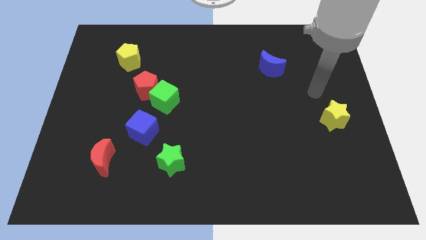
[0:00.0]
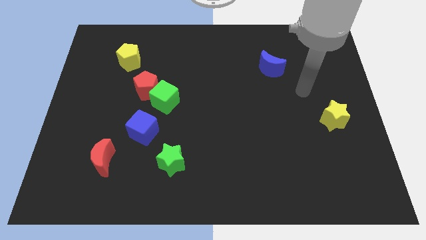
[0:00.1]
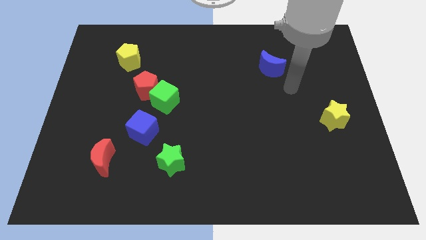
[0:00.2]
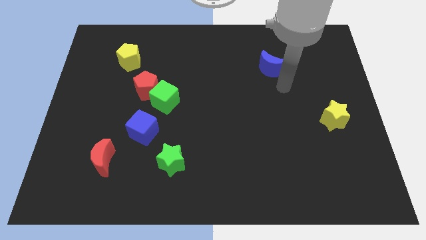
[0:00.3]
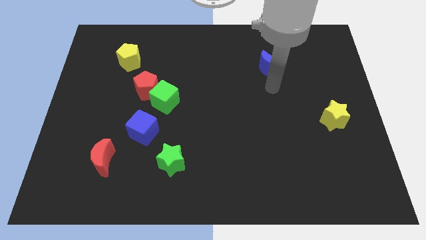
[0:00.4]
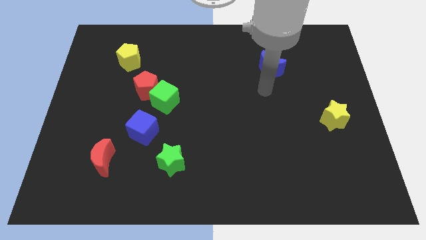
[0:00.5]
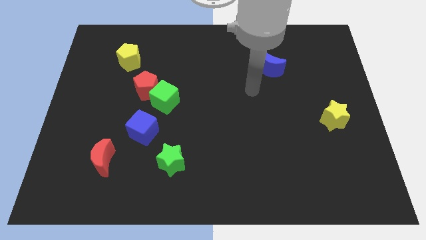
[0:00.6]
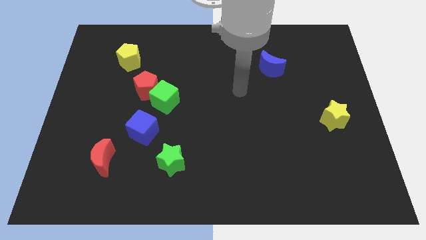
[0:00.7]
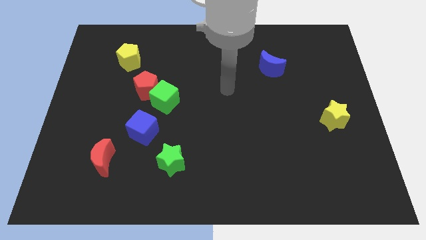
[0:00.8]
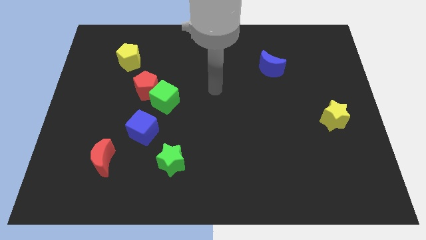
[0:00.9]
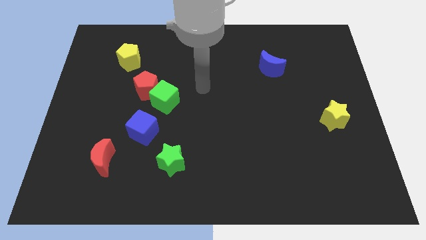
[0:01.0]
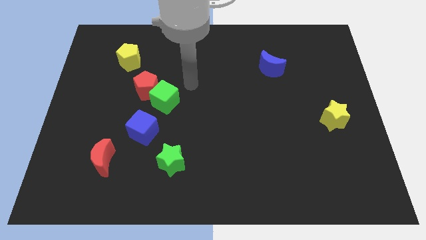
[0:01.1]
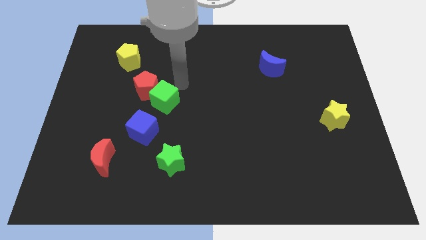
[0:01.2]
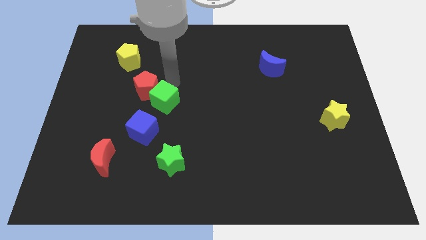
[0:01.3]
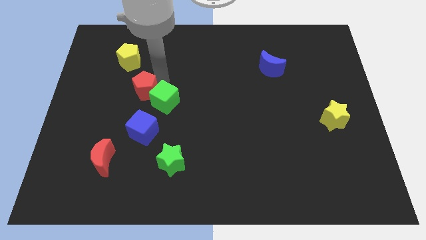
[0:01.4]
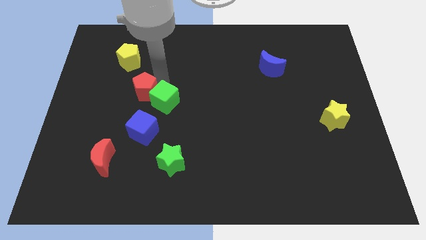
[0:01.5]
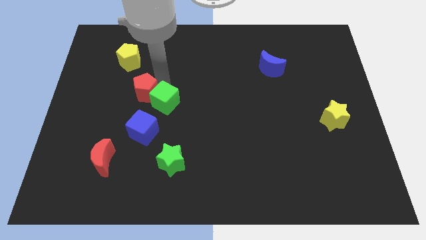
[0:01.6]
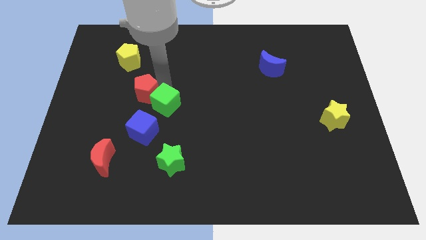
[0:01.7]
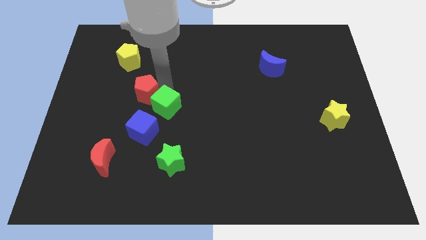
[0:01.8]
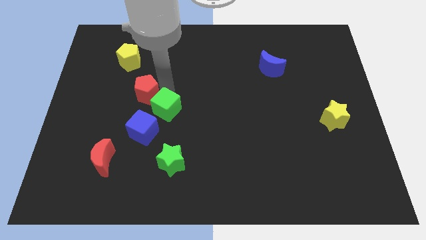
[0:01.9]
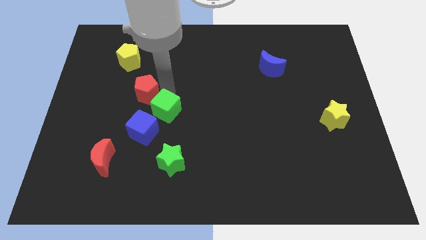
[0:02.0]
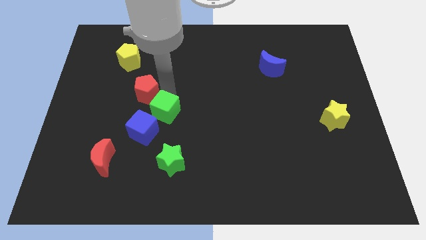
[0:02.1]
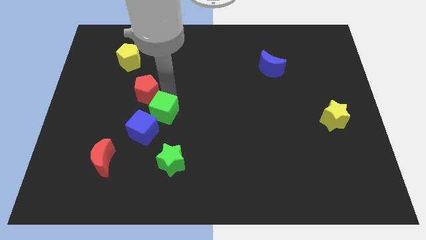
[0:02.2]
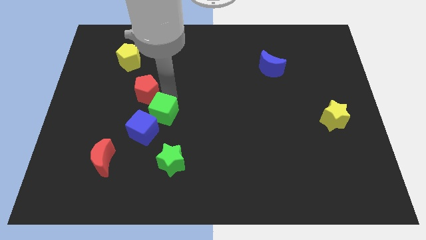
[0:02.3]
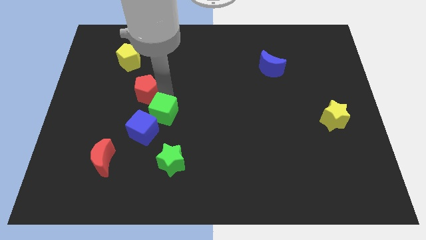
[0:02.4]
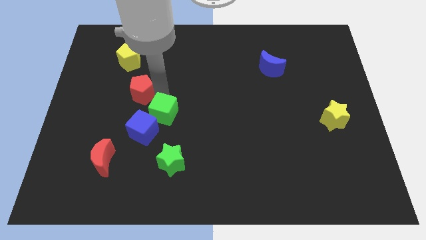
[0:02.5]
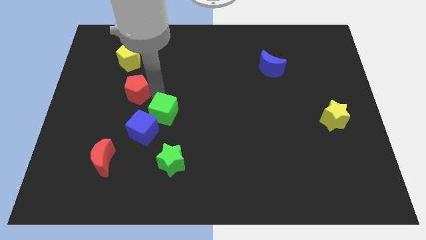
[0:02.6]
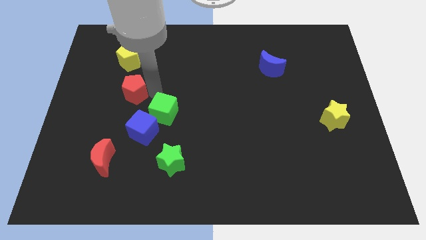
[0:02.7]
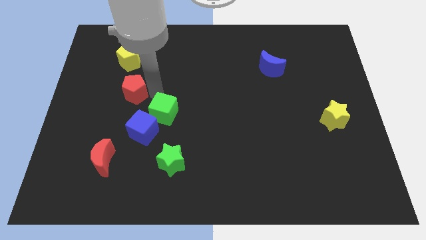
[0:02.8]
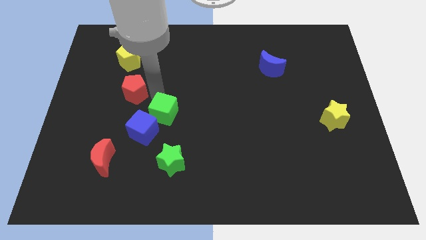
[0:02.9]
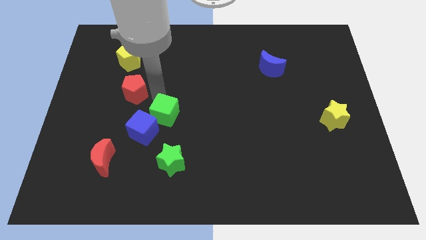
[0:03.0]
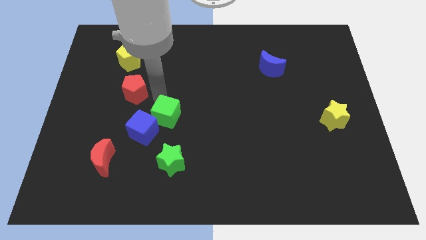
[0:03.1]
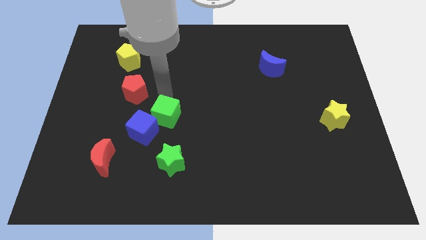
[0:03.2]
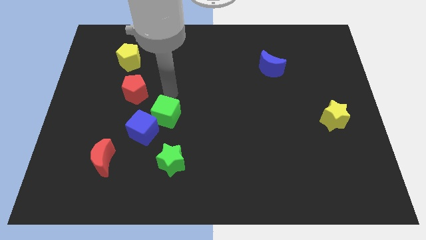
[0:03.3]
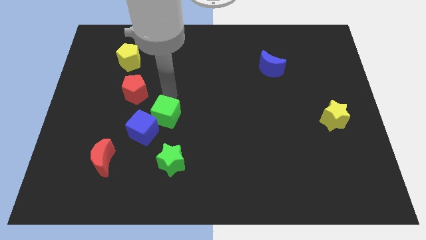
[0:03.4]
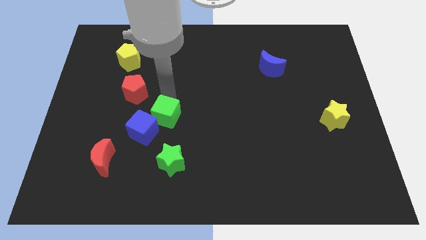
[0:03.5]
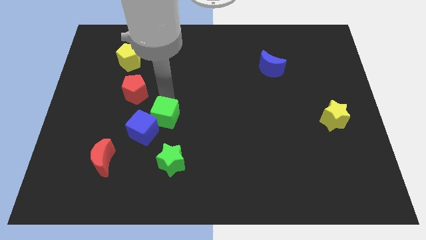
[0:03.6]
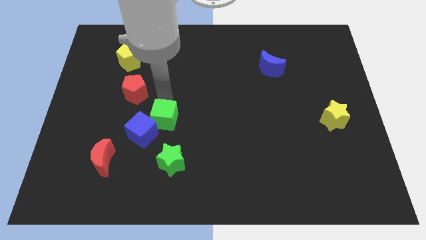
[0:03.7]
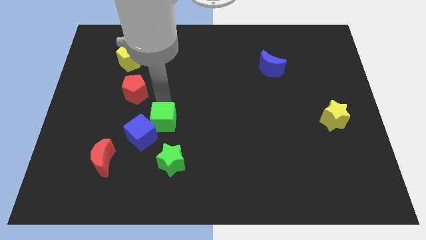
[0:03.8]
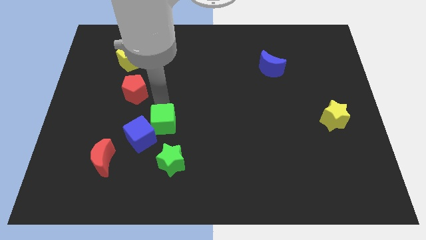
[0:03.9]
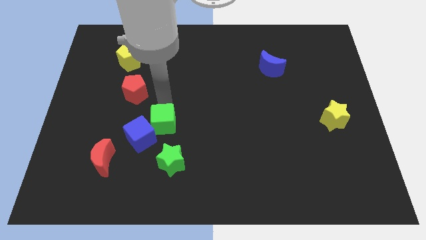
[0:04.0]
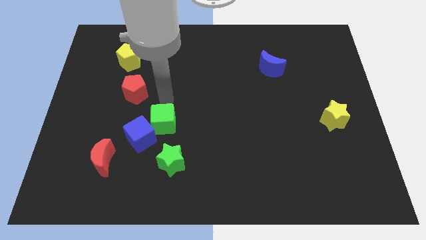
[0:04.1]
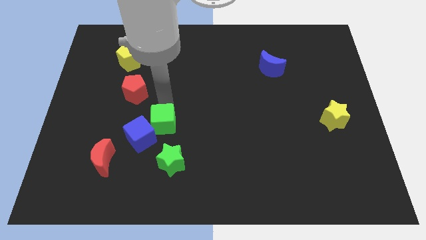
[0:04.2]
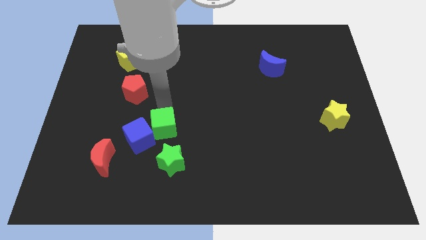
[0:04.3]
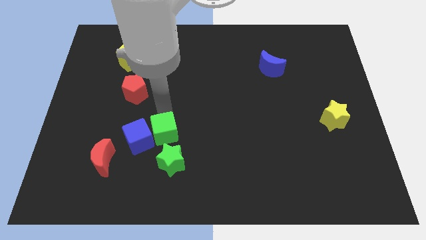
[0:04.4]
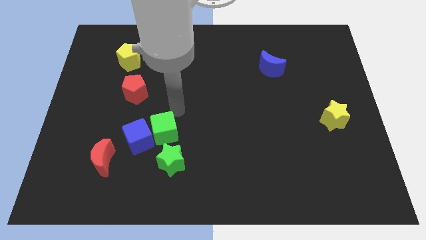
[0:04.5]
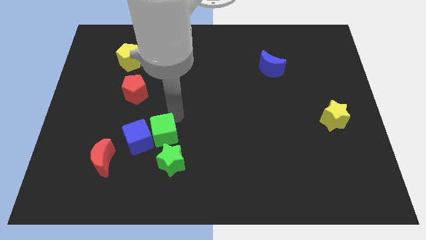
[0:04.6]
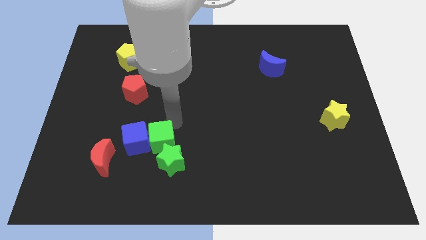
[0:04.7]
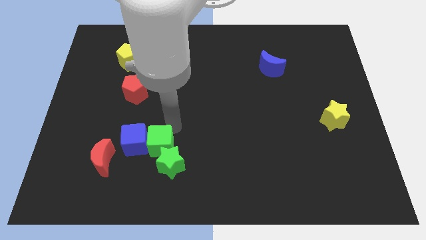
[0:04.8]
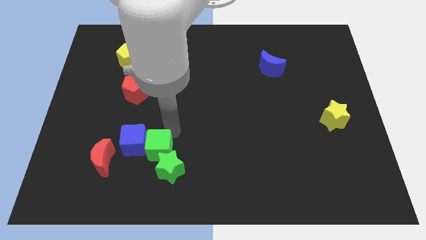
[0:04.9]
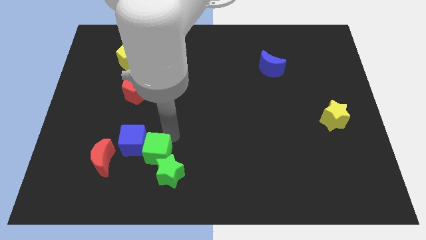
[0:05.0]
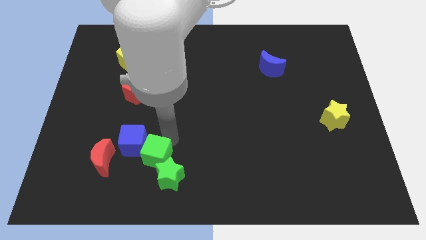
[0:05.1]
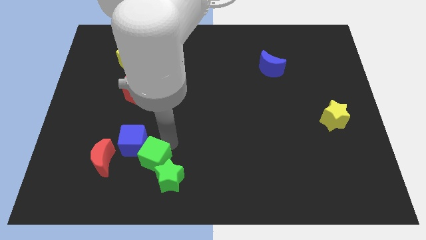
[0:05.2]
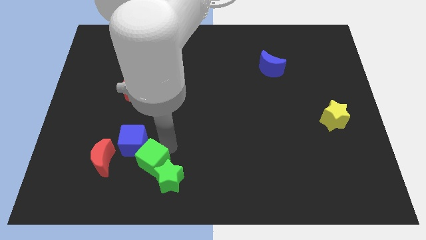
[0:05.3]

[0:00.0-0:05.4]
move the green cube to the bottom of the blue cube

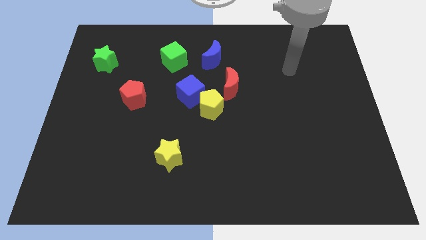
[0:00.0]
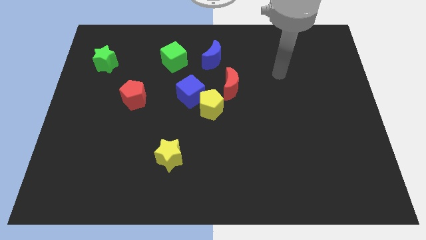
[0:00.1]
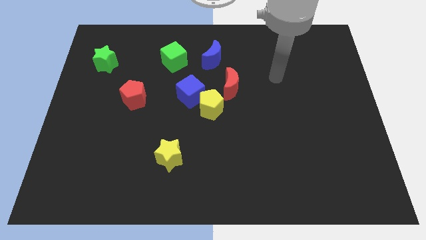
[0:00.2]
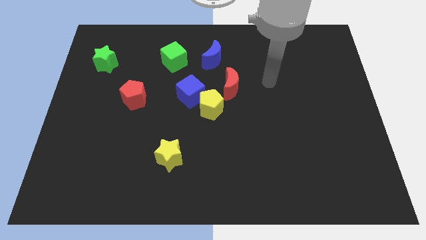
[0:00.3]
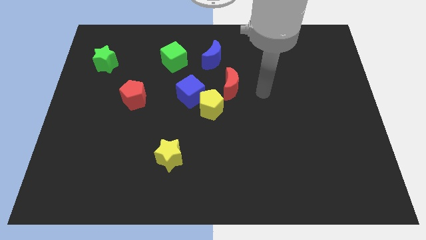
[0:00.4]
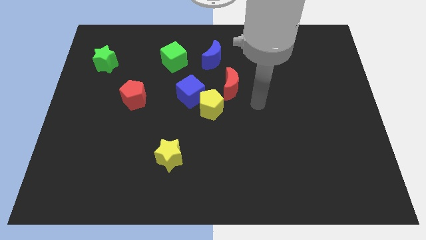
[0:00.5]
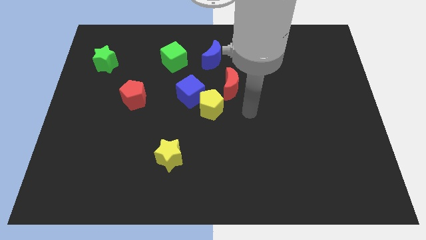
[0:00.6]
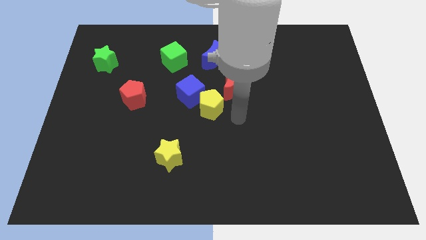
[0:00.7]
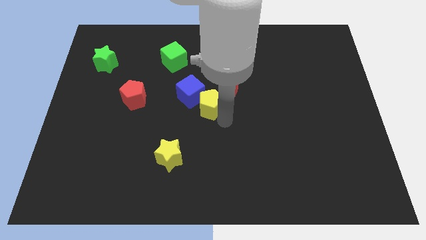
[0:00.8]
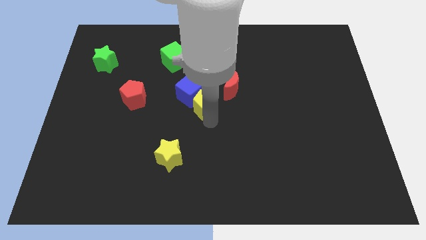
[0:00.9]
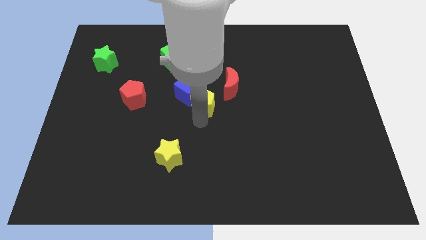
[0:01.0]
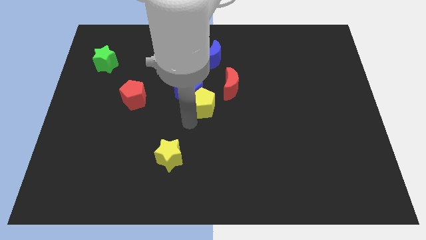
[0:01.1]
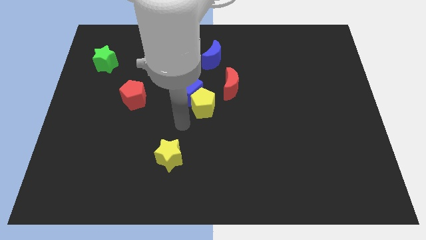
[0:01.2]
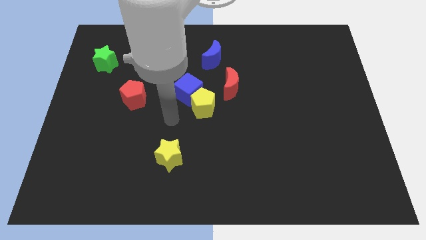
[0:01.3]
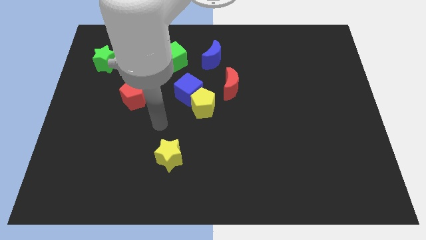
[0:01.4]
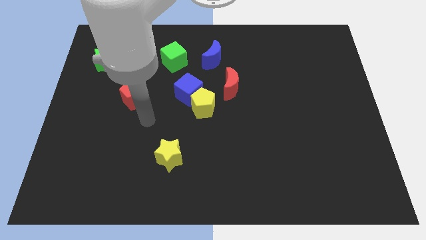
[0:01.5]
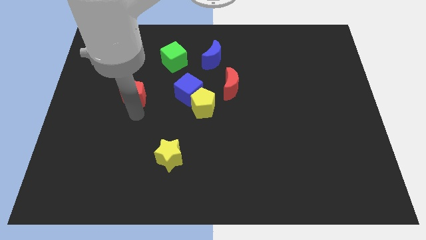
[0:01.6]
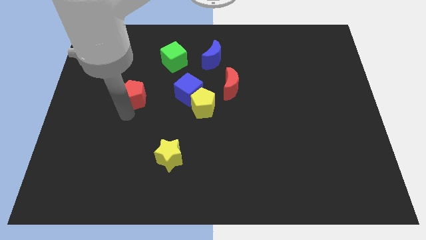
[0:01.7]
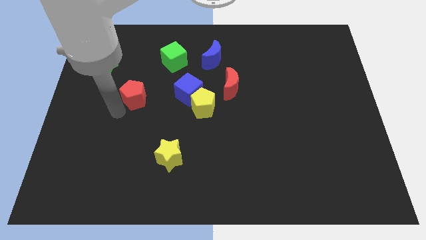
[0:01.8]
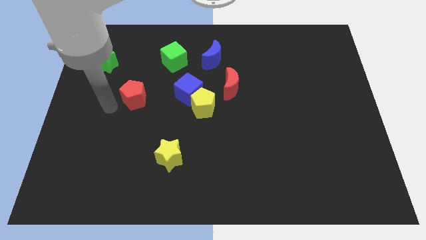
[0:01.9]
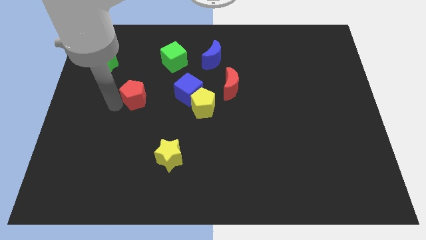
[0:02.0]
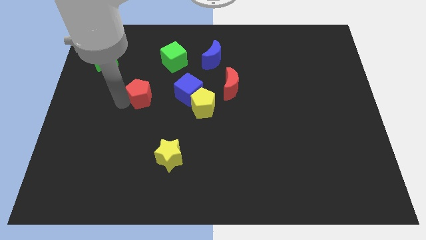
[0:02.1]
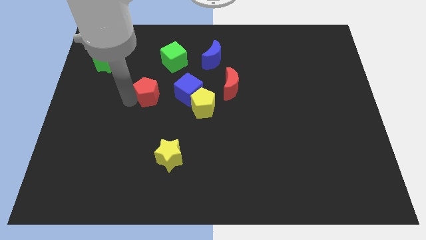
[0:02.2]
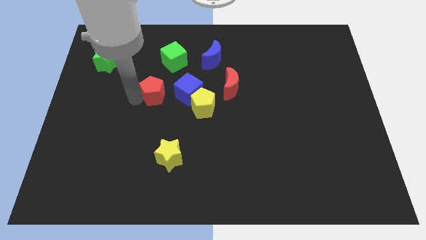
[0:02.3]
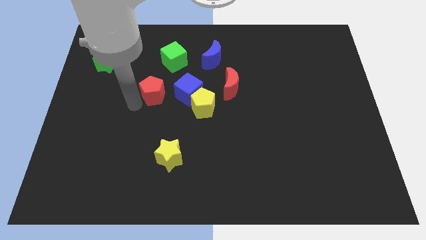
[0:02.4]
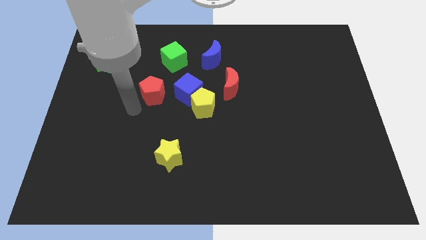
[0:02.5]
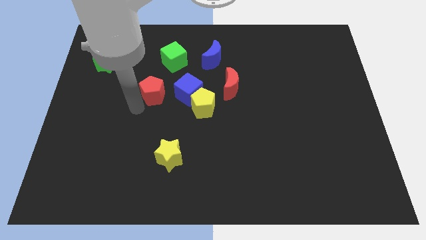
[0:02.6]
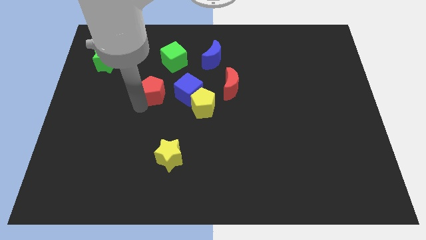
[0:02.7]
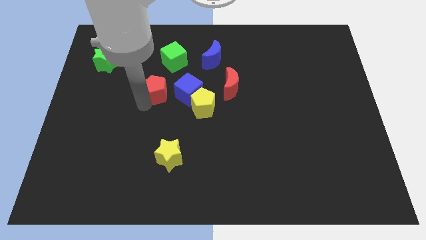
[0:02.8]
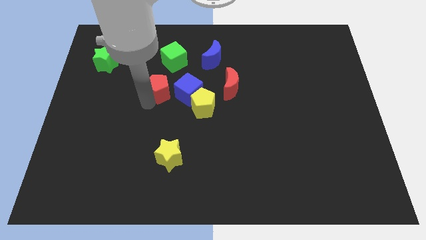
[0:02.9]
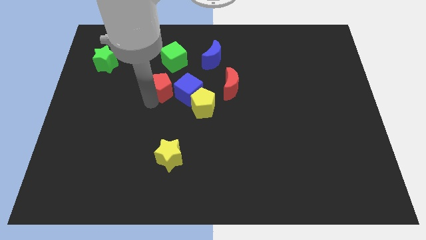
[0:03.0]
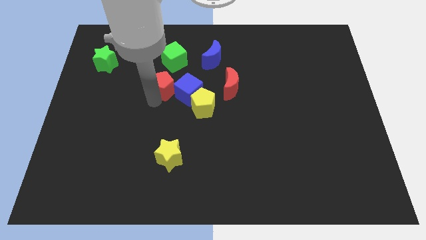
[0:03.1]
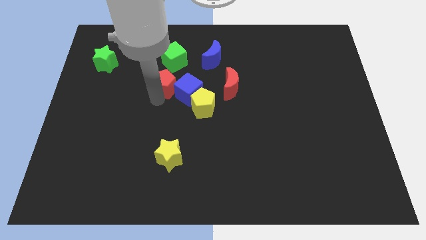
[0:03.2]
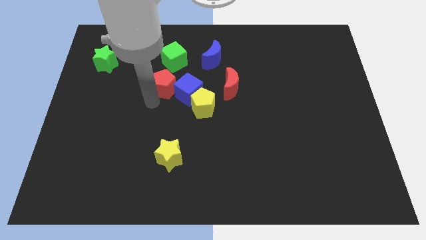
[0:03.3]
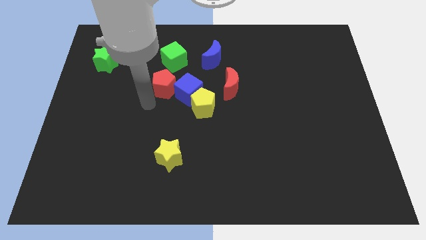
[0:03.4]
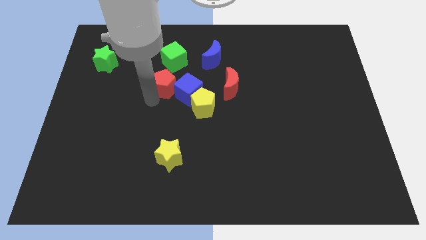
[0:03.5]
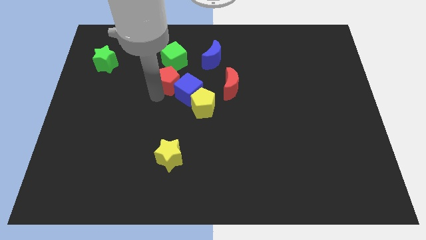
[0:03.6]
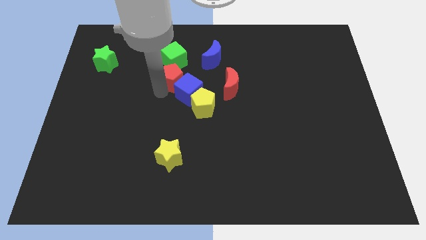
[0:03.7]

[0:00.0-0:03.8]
slide the red pentagon above the blue cube
